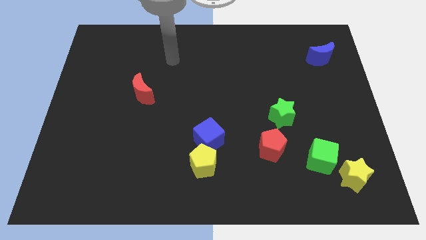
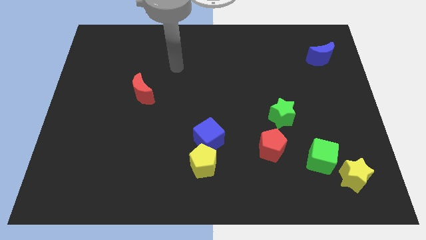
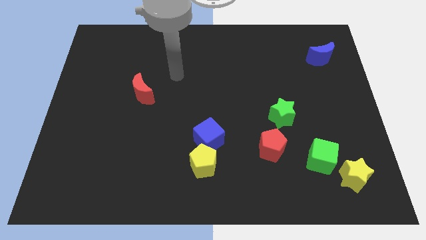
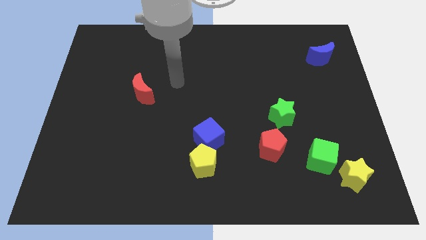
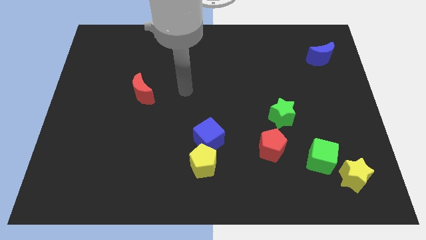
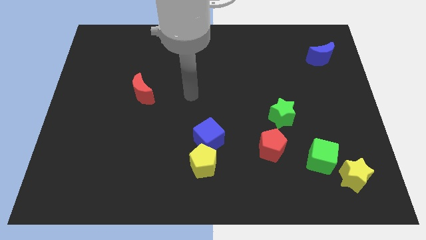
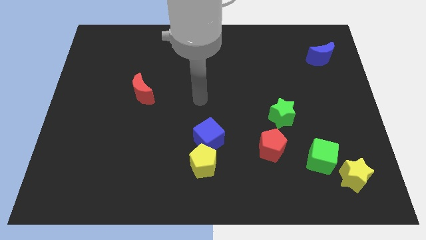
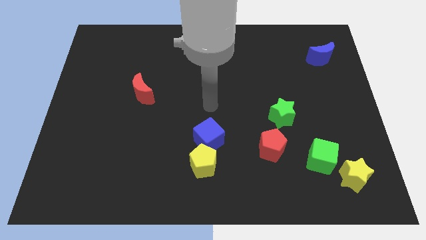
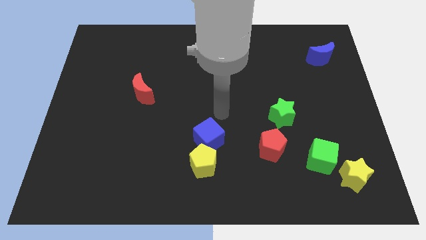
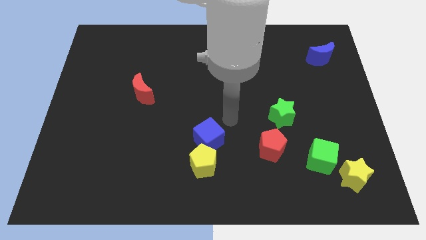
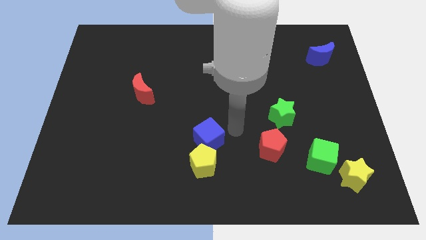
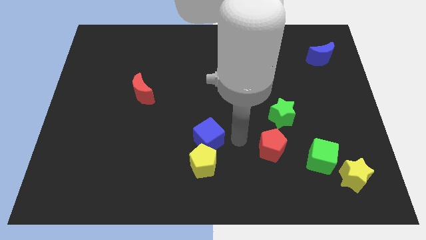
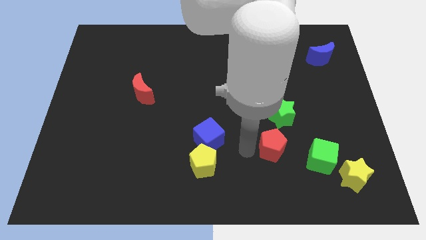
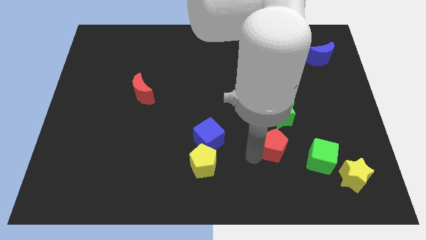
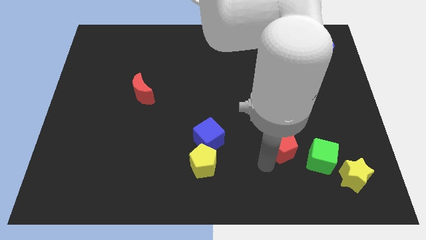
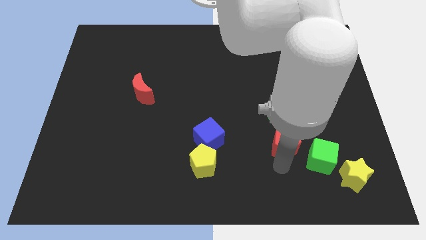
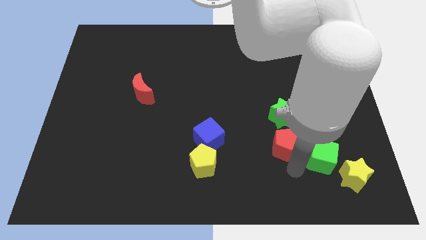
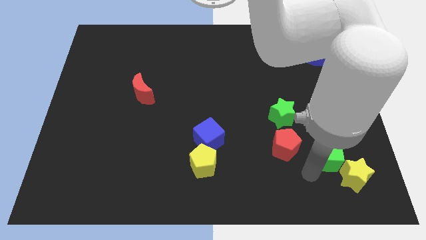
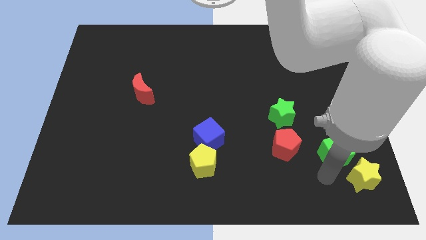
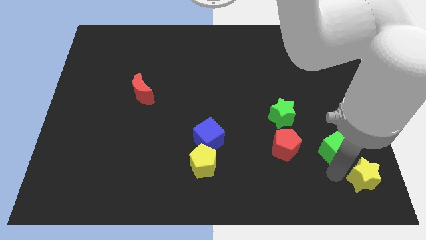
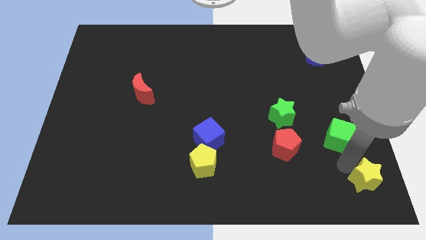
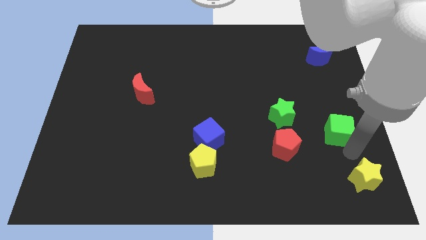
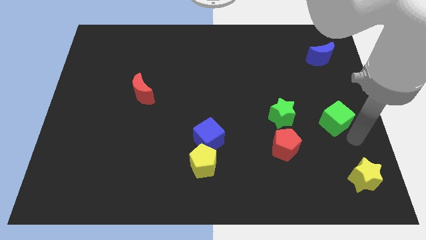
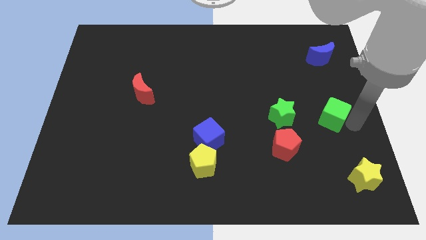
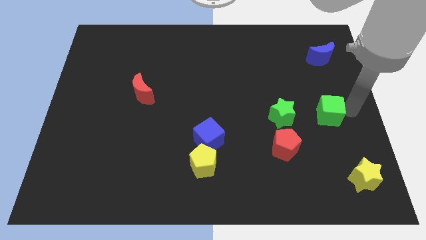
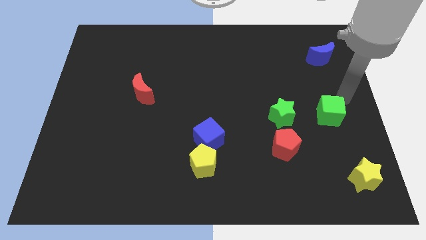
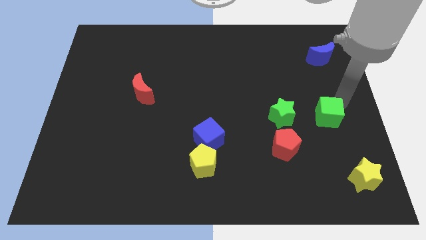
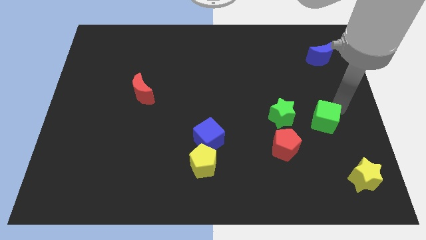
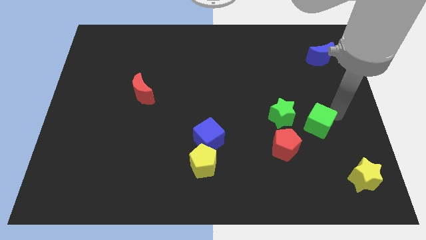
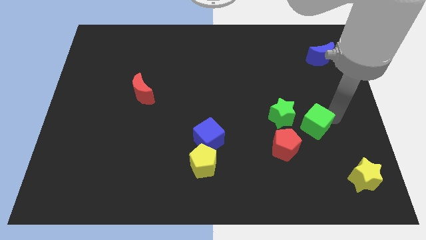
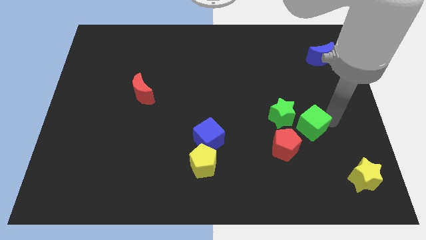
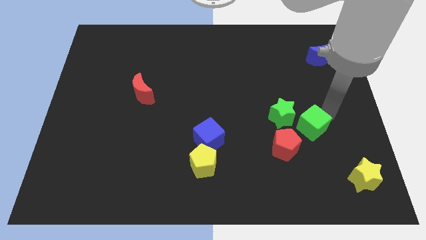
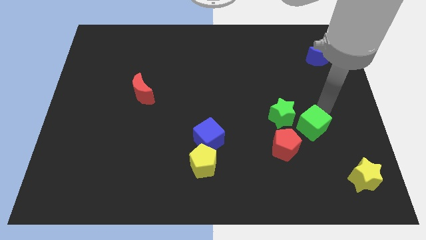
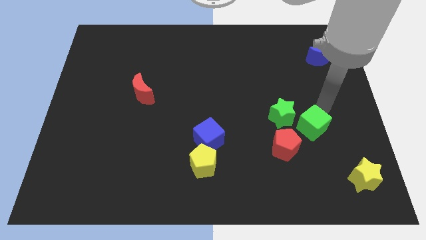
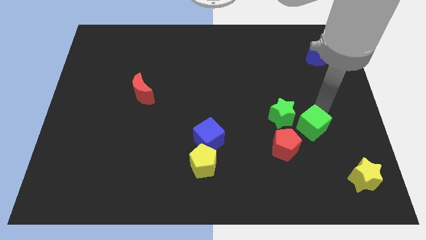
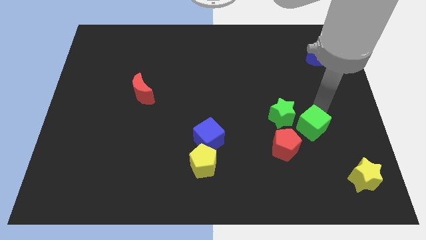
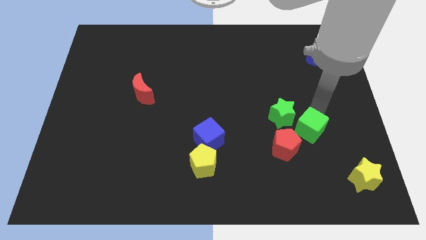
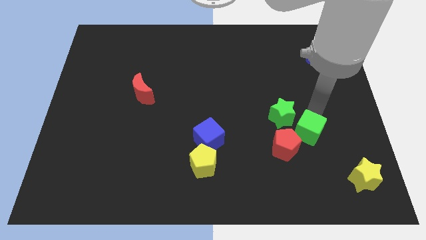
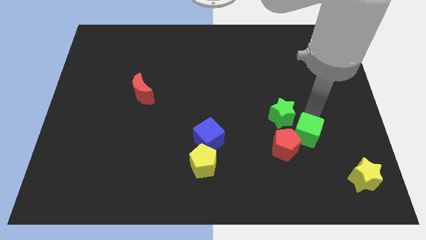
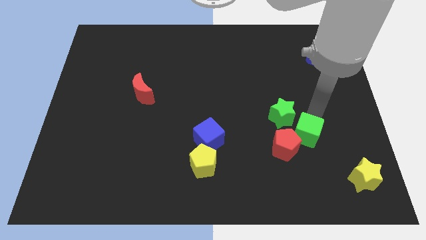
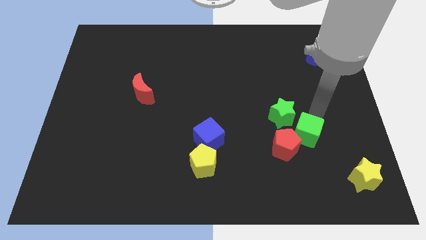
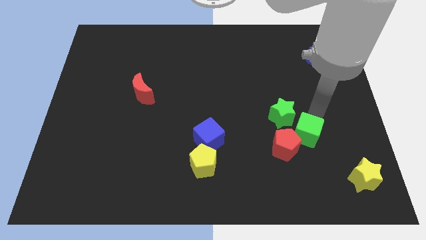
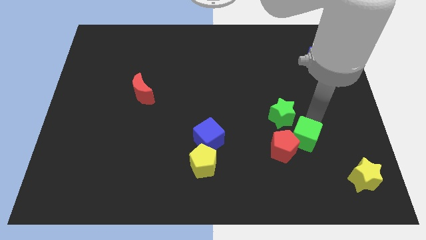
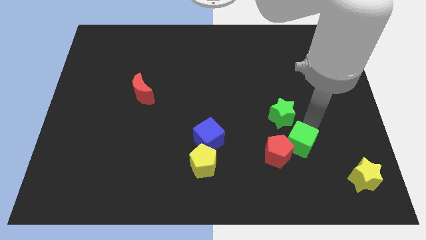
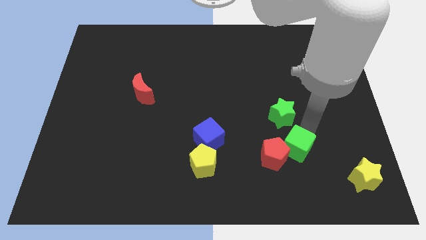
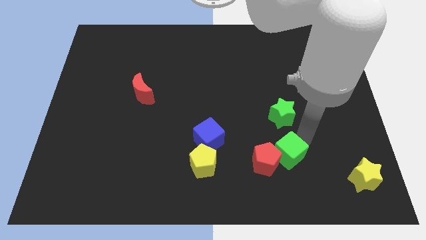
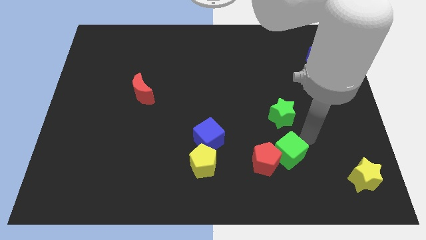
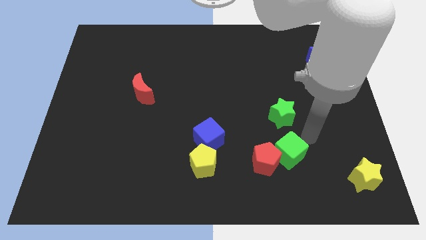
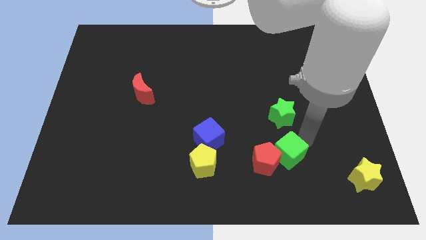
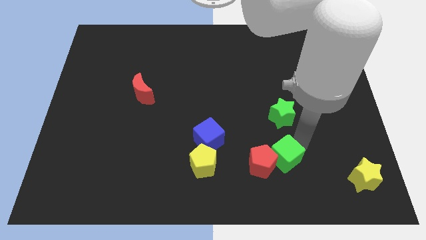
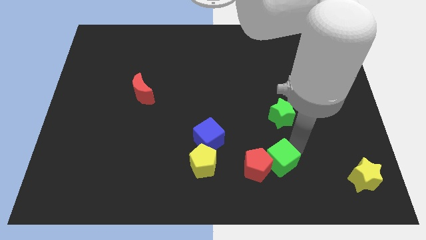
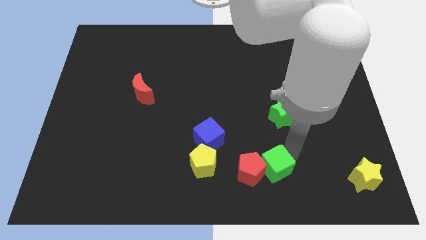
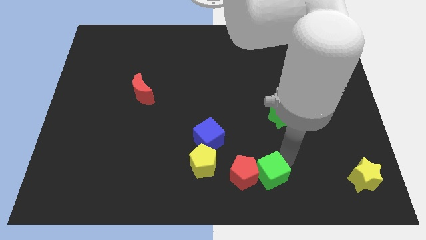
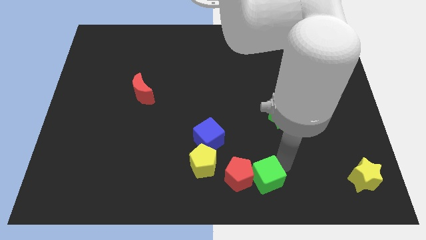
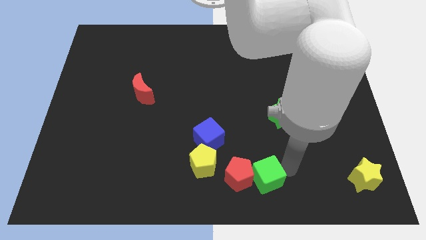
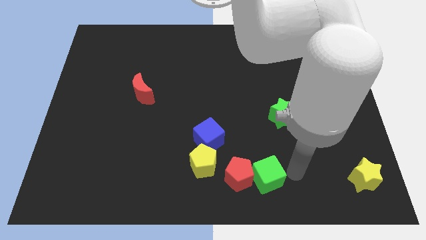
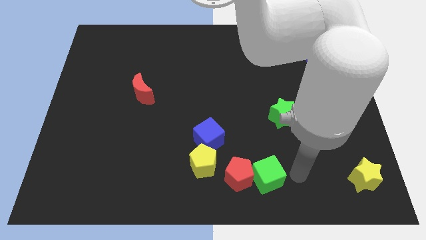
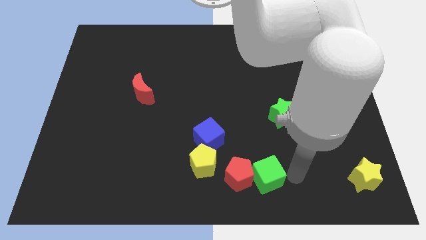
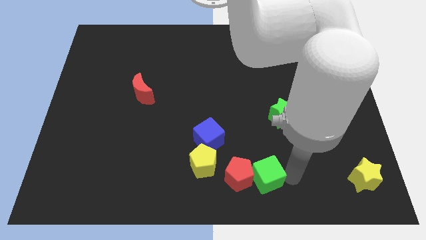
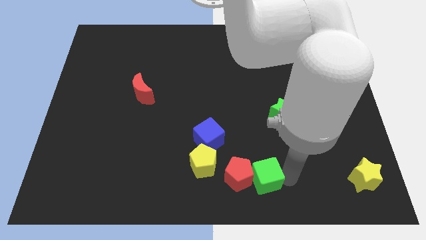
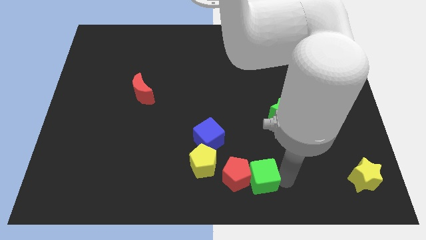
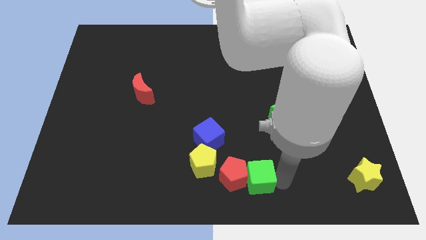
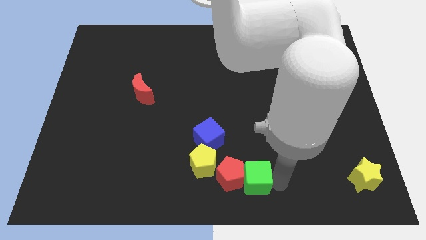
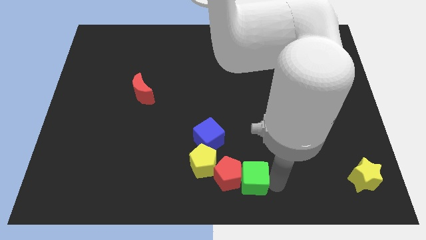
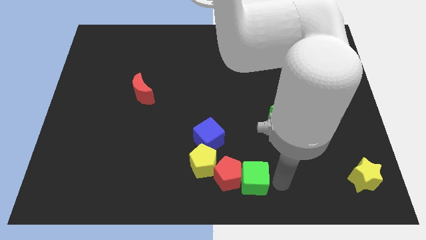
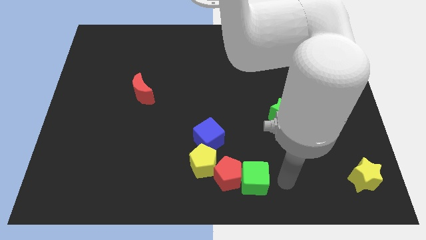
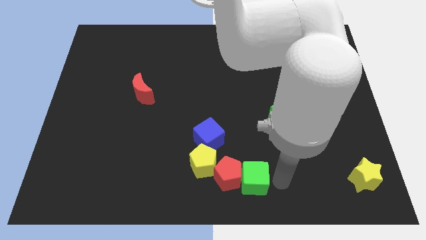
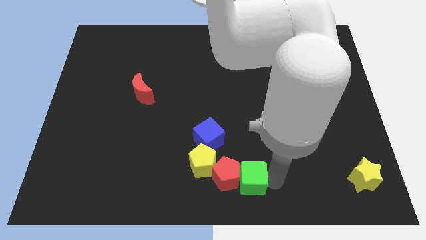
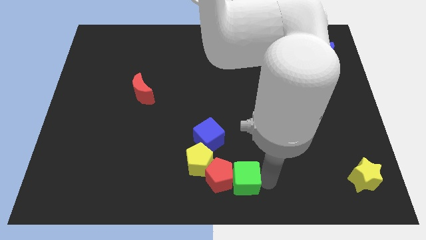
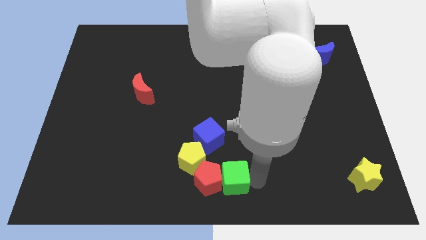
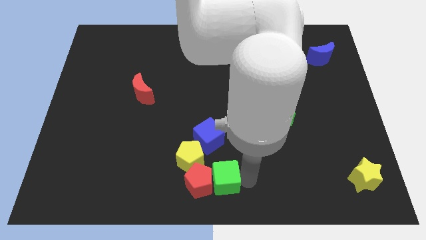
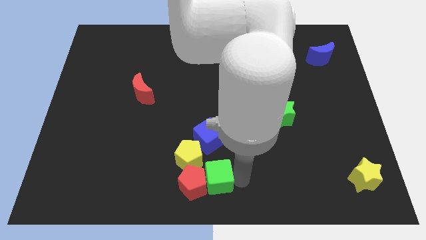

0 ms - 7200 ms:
slide the green cube to the left

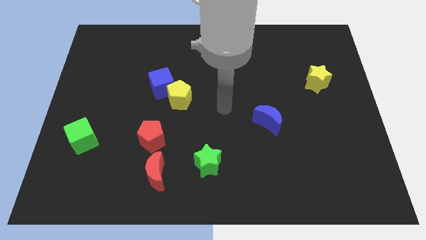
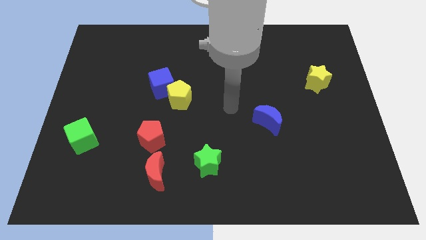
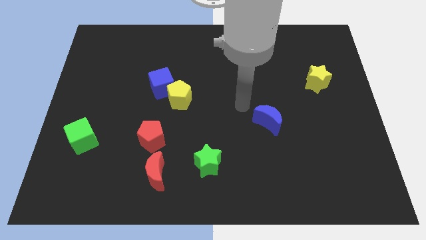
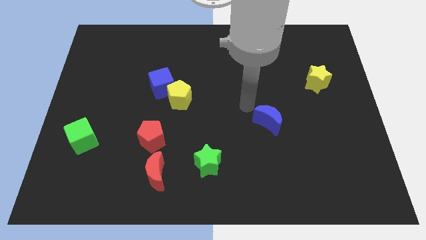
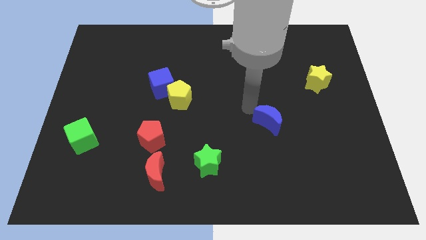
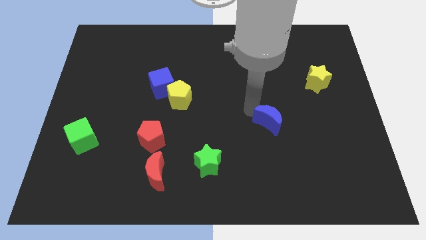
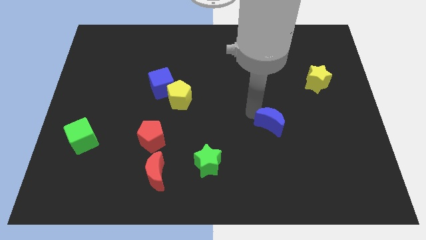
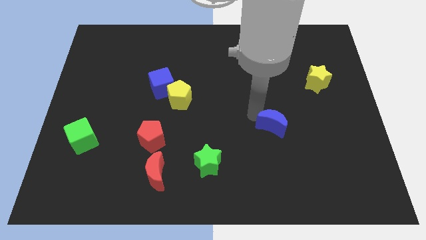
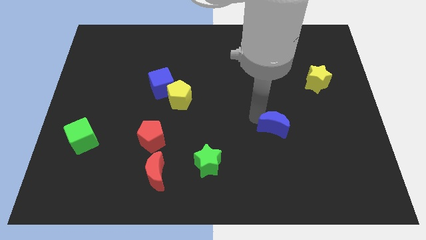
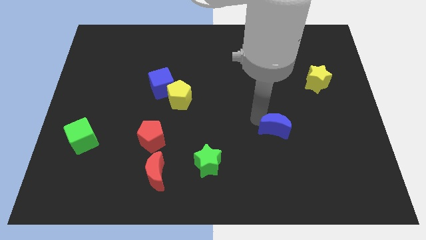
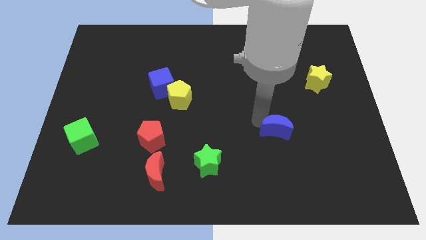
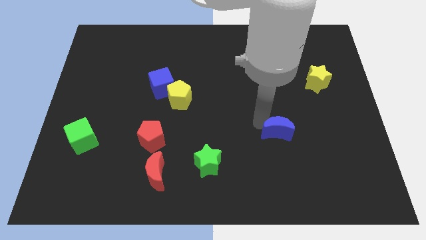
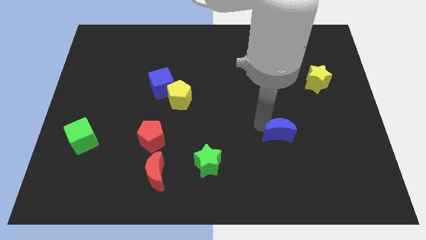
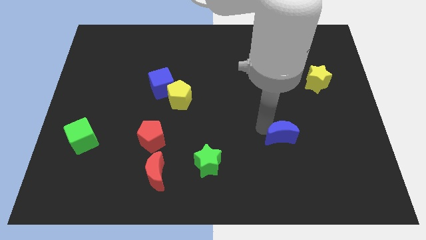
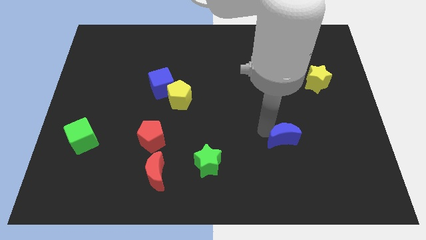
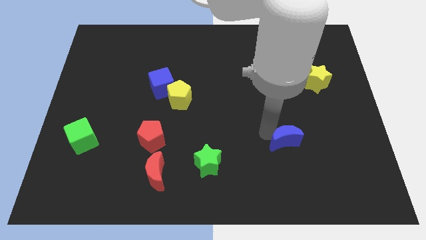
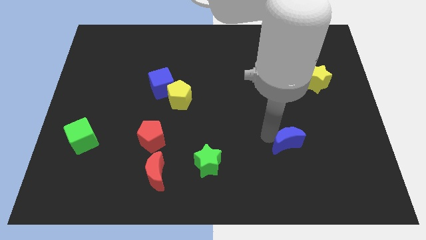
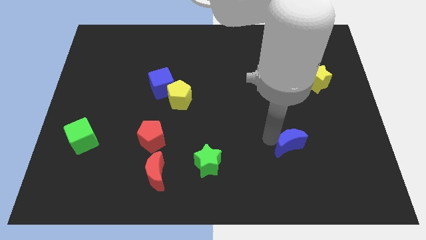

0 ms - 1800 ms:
slightly push the blue moon downwards and right diagonally
